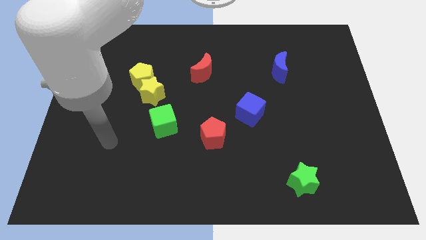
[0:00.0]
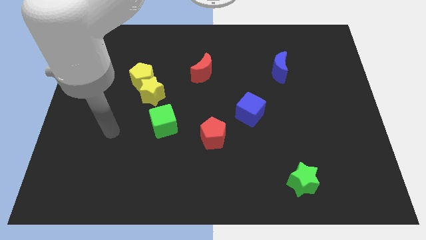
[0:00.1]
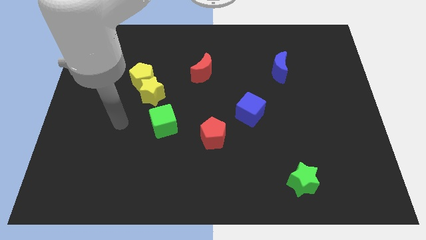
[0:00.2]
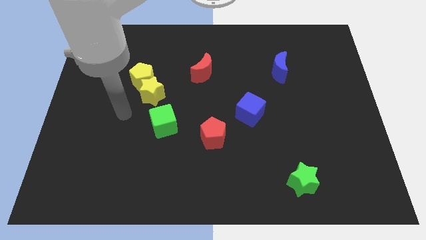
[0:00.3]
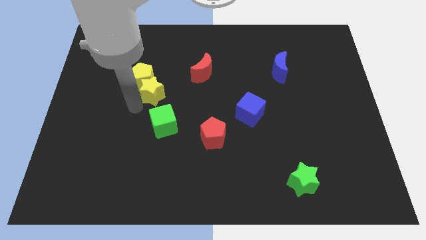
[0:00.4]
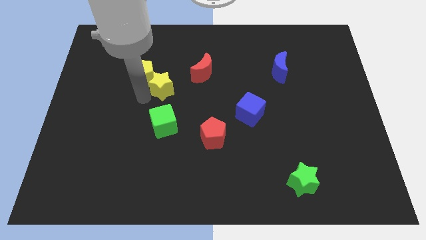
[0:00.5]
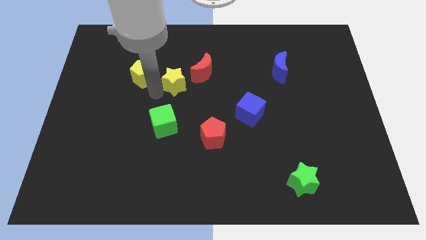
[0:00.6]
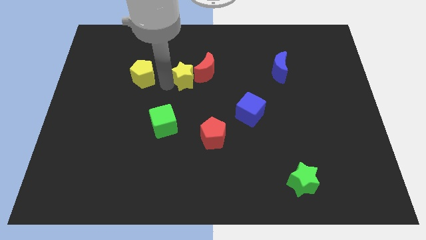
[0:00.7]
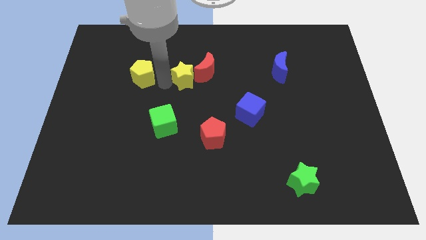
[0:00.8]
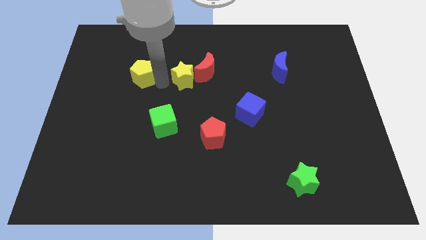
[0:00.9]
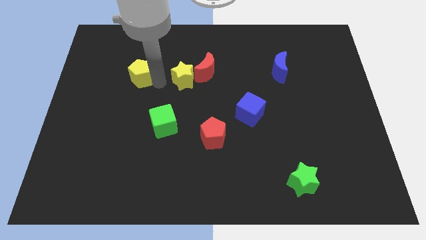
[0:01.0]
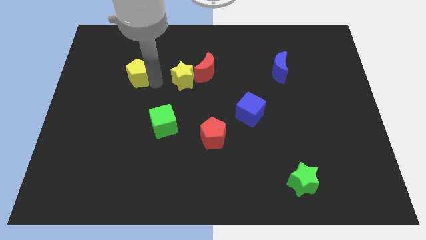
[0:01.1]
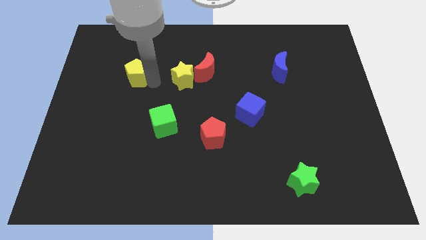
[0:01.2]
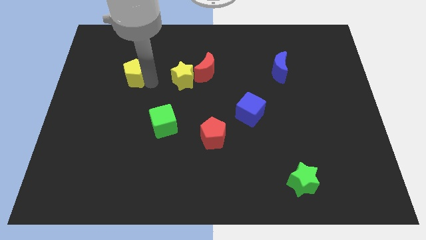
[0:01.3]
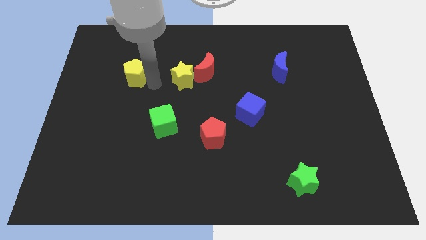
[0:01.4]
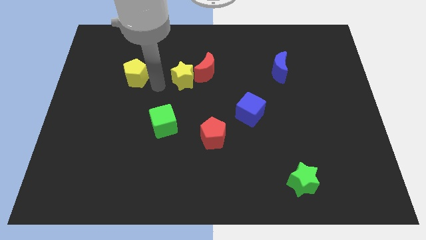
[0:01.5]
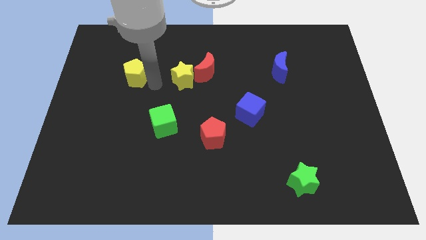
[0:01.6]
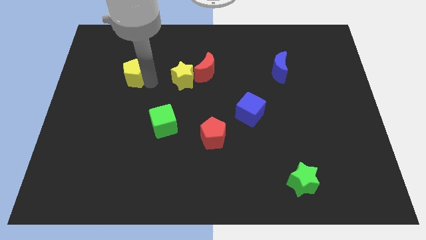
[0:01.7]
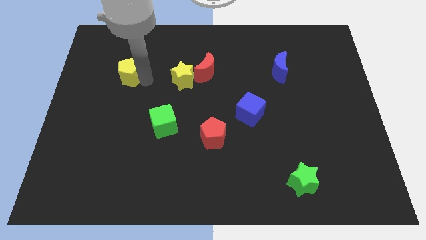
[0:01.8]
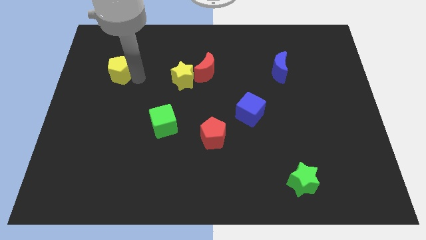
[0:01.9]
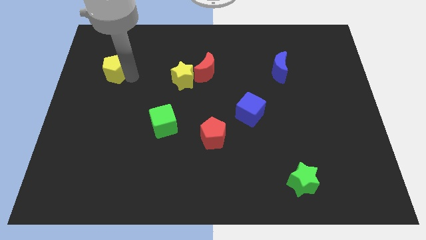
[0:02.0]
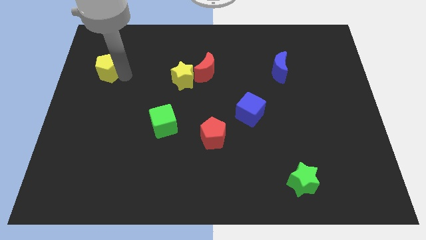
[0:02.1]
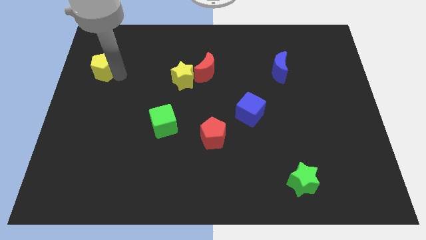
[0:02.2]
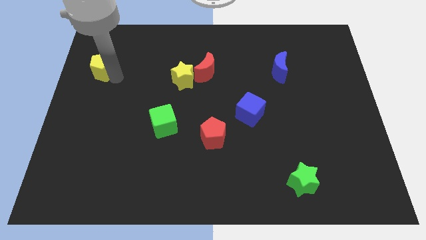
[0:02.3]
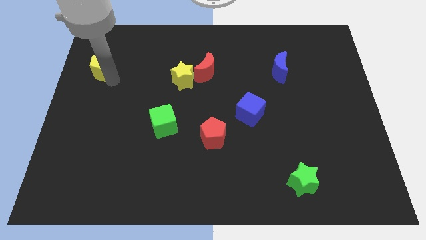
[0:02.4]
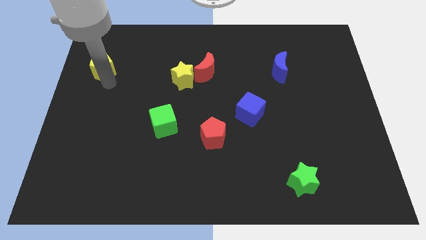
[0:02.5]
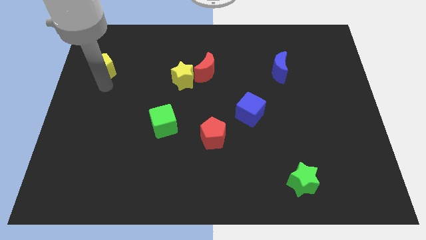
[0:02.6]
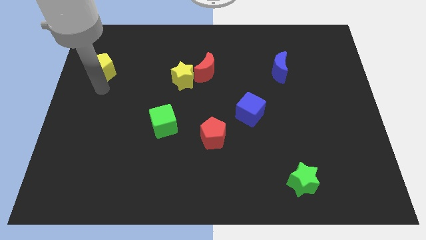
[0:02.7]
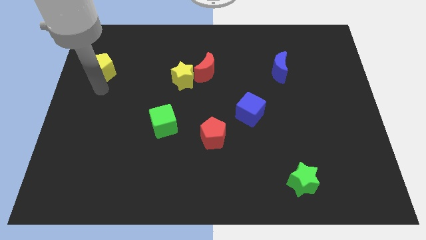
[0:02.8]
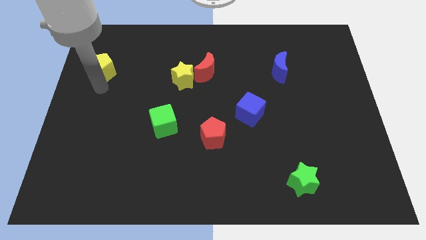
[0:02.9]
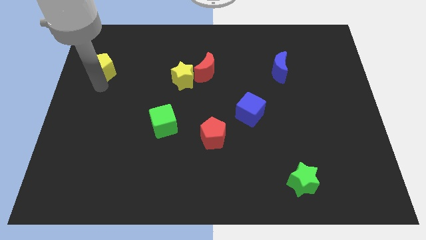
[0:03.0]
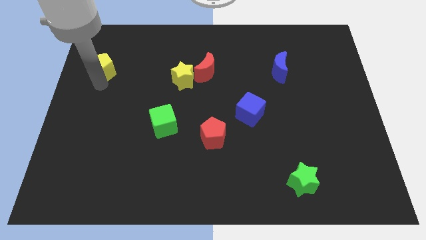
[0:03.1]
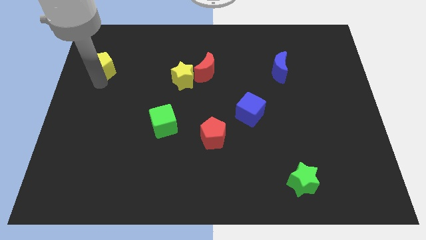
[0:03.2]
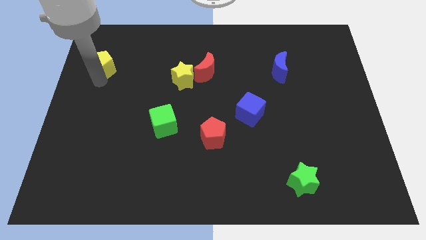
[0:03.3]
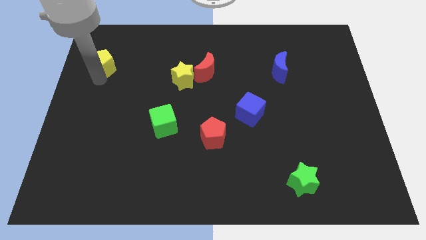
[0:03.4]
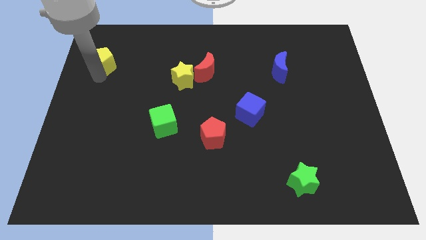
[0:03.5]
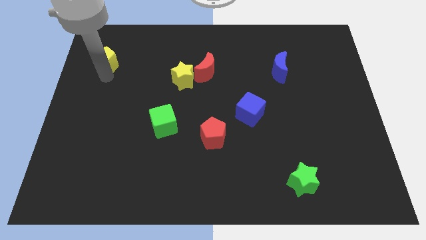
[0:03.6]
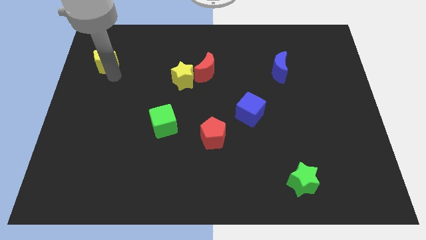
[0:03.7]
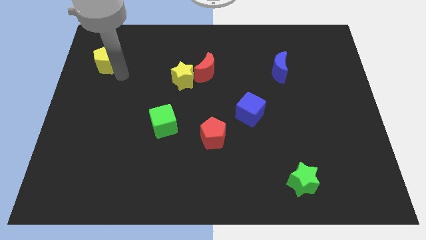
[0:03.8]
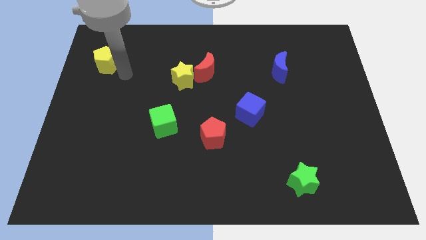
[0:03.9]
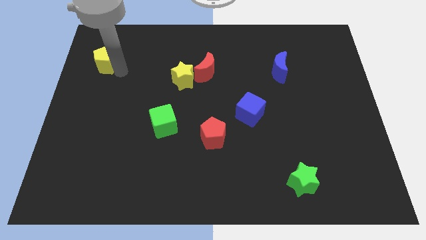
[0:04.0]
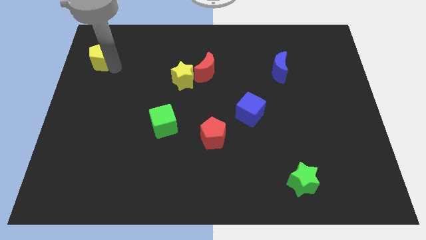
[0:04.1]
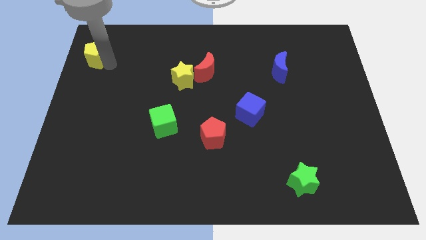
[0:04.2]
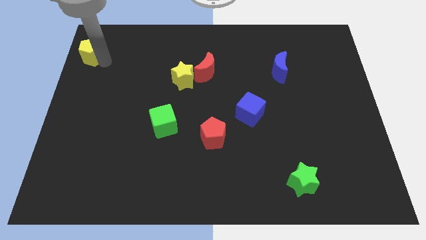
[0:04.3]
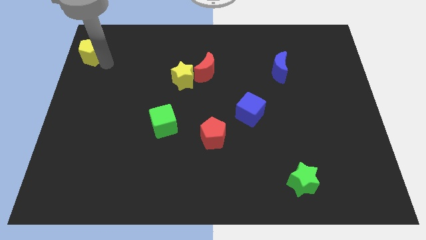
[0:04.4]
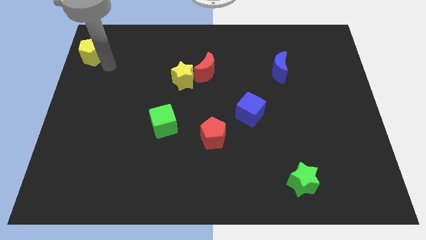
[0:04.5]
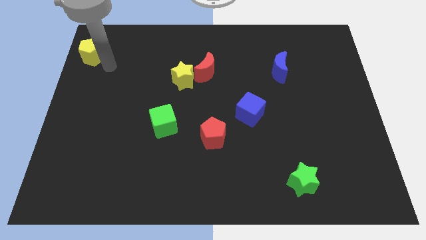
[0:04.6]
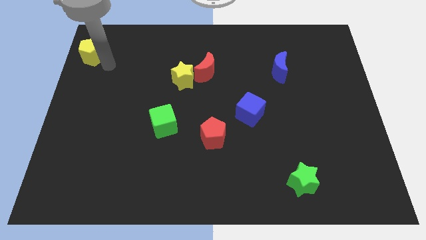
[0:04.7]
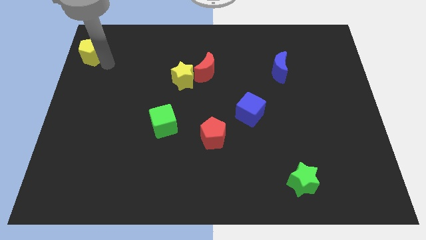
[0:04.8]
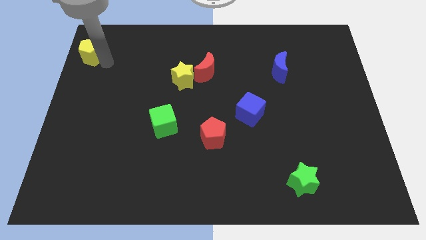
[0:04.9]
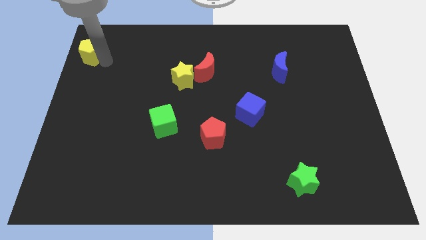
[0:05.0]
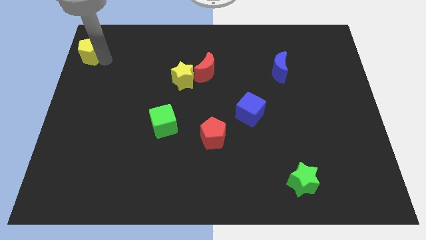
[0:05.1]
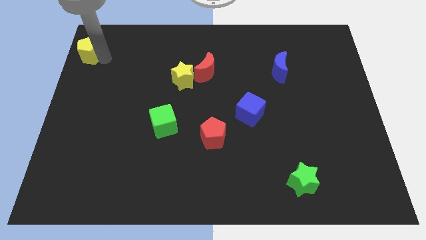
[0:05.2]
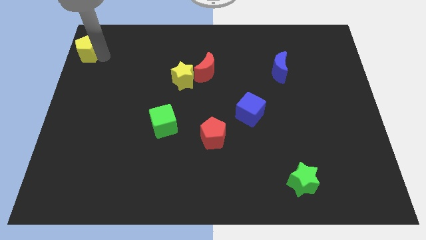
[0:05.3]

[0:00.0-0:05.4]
slide the yellow pentagon to the top left

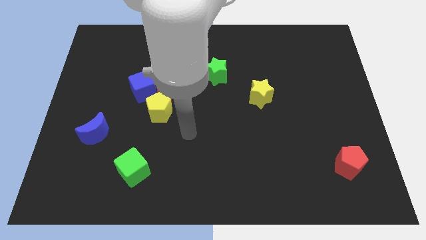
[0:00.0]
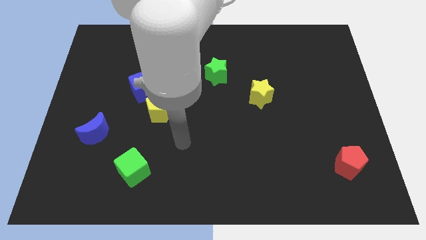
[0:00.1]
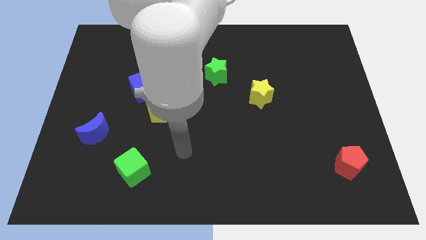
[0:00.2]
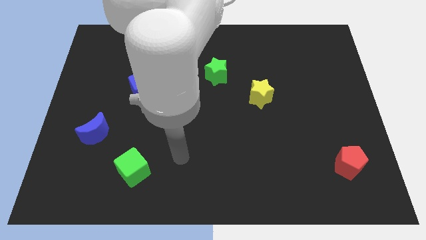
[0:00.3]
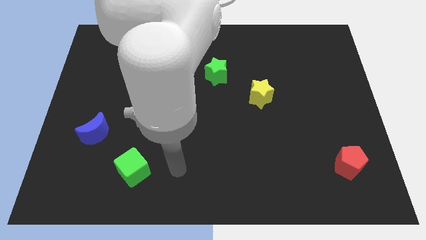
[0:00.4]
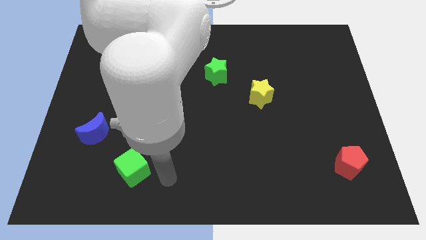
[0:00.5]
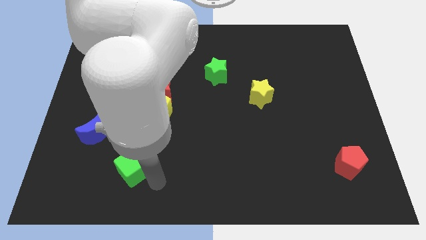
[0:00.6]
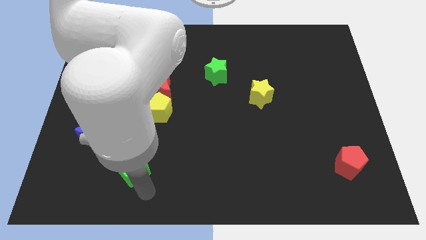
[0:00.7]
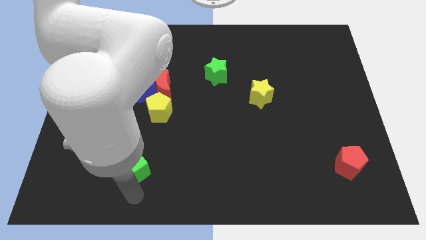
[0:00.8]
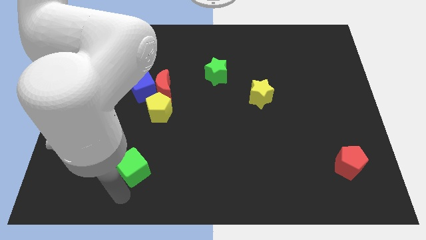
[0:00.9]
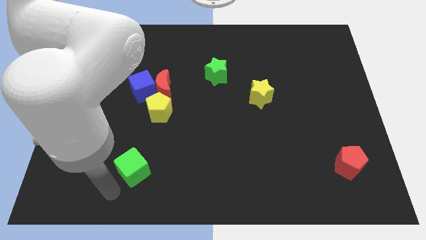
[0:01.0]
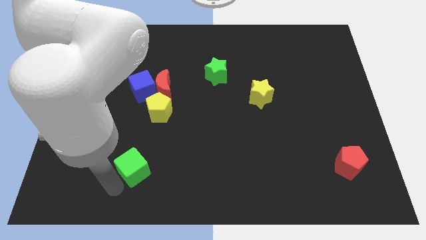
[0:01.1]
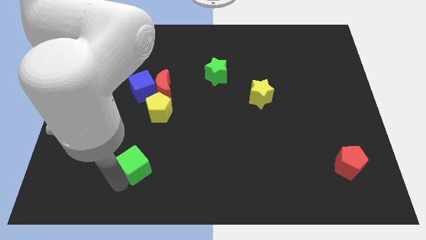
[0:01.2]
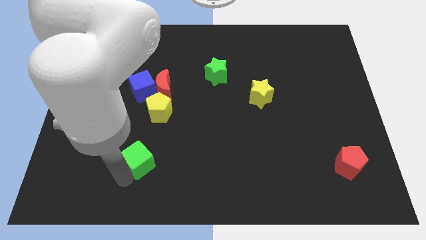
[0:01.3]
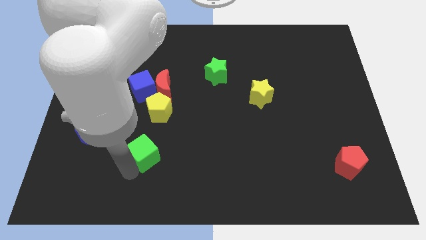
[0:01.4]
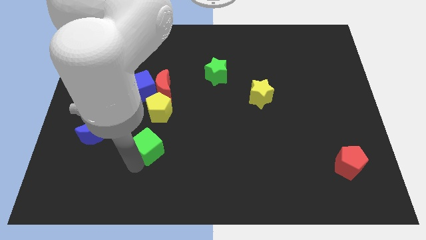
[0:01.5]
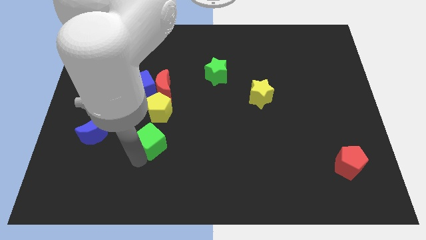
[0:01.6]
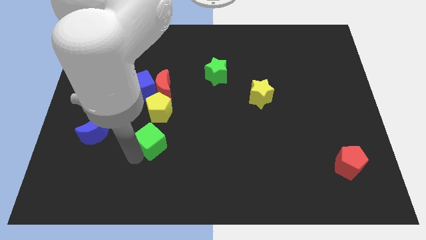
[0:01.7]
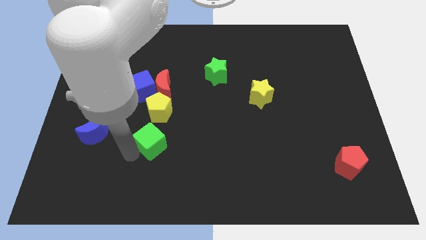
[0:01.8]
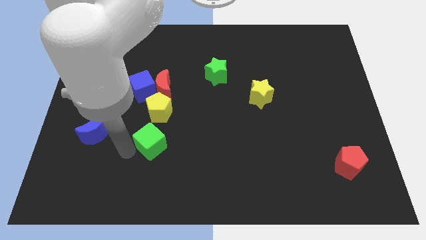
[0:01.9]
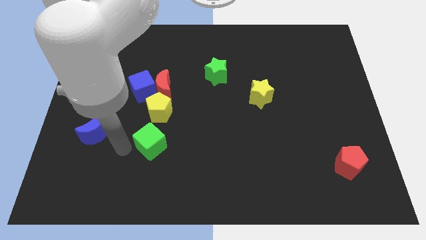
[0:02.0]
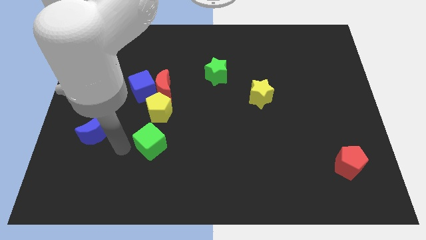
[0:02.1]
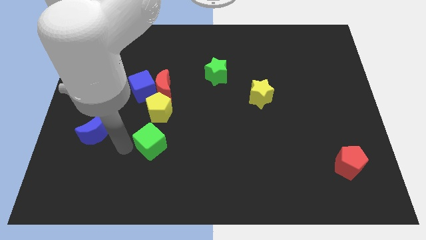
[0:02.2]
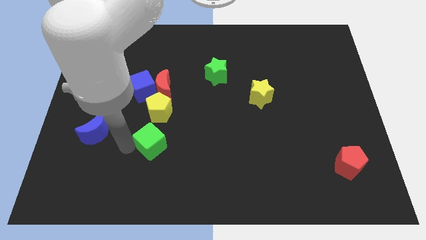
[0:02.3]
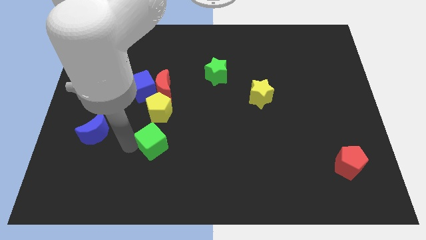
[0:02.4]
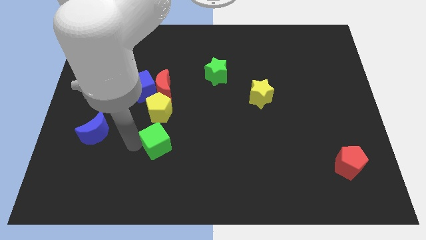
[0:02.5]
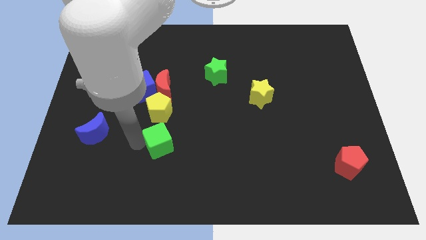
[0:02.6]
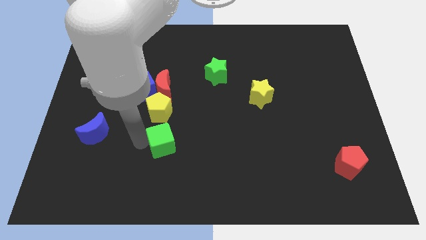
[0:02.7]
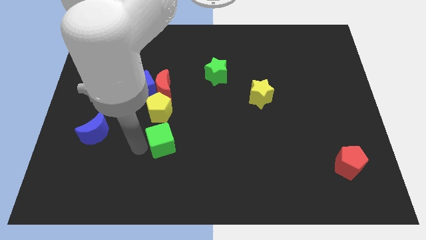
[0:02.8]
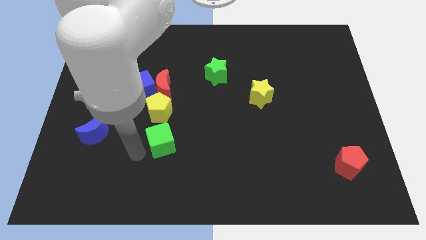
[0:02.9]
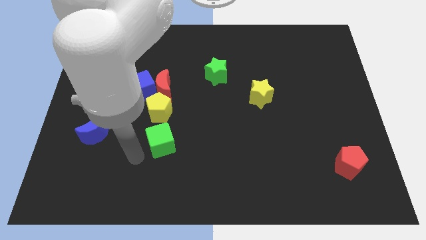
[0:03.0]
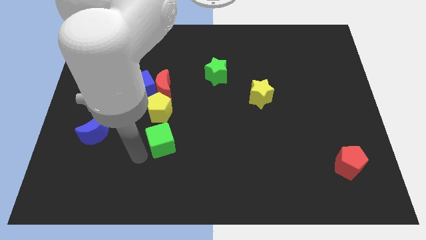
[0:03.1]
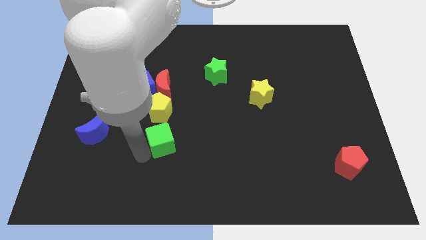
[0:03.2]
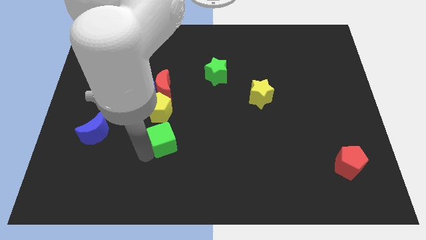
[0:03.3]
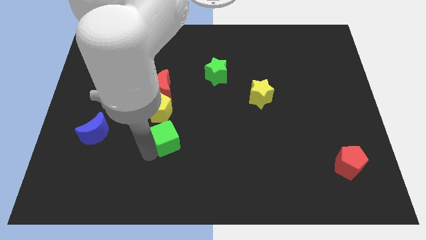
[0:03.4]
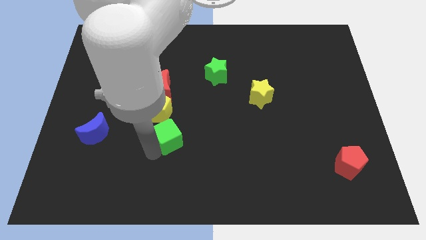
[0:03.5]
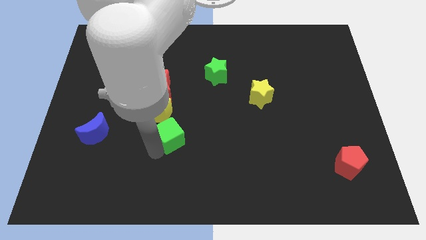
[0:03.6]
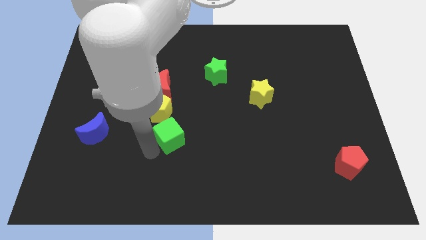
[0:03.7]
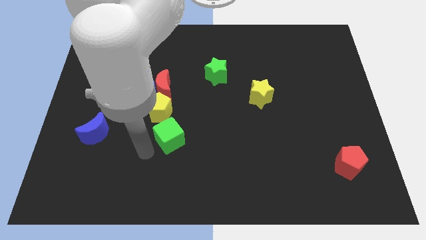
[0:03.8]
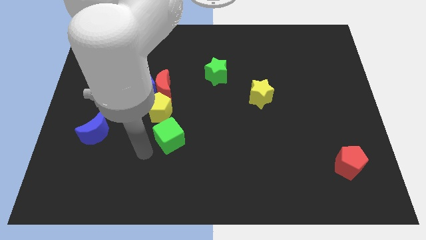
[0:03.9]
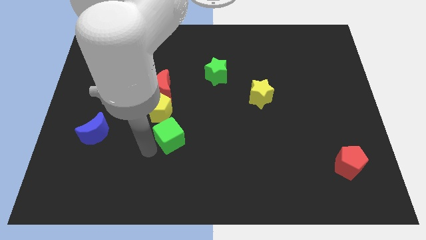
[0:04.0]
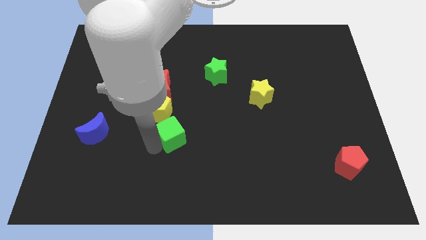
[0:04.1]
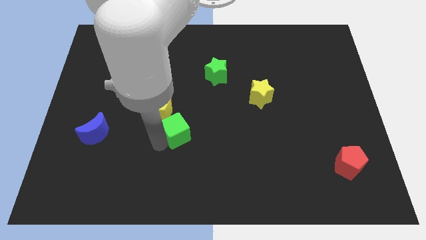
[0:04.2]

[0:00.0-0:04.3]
slide the green cube to the middle of the board
